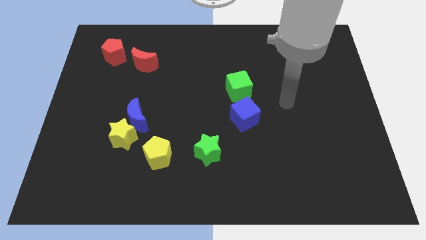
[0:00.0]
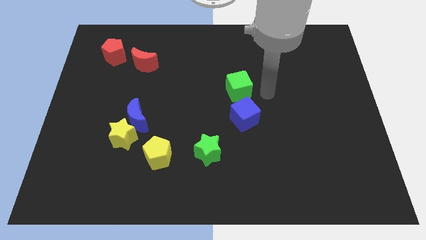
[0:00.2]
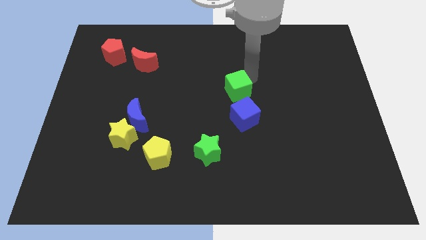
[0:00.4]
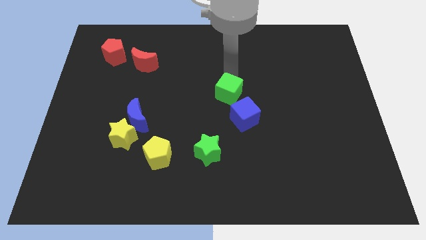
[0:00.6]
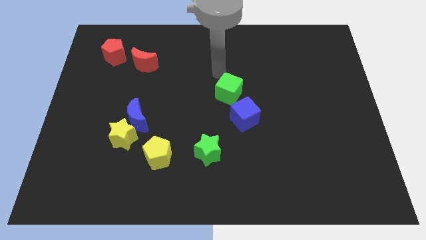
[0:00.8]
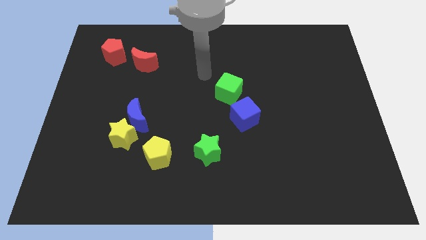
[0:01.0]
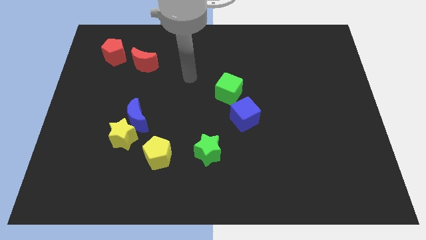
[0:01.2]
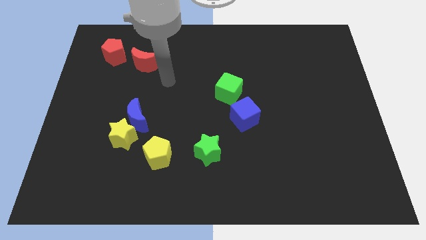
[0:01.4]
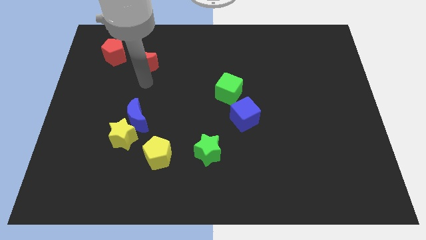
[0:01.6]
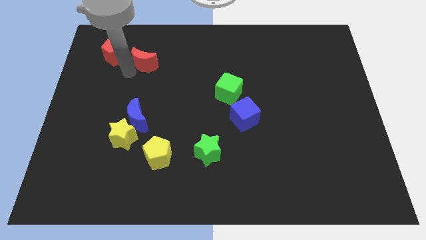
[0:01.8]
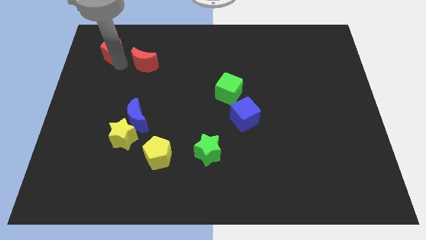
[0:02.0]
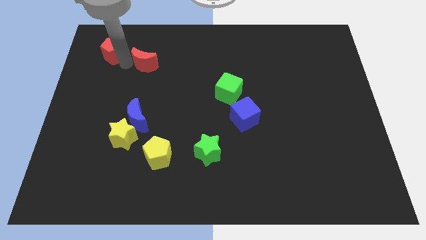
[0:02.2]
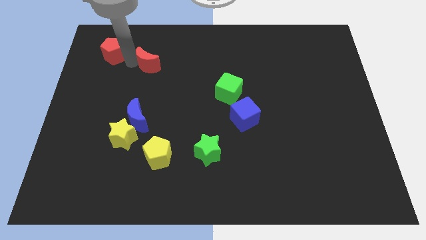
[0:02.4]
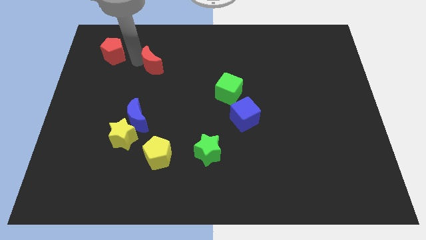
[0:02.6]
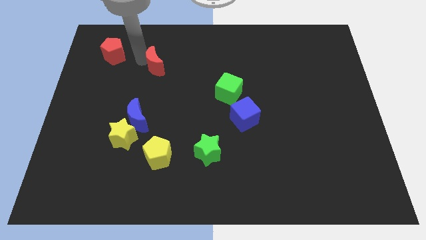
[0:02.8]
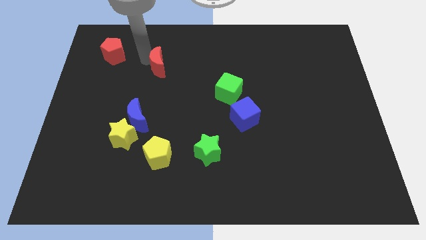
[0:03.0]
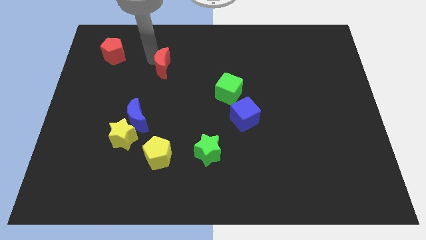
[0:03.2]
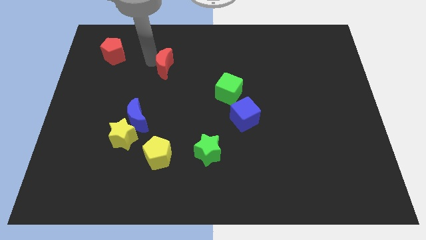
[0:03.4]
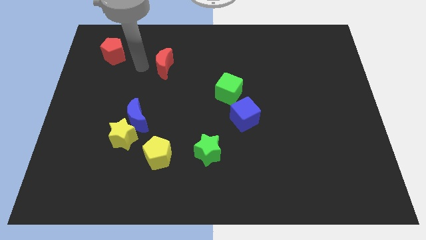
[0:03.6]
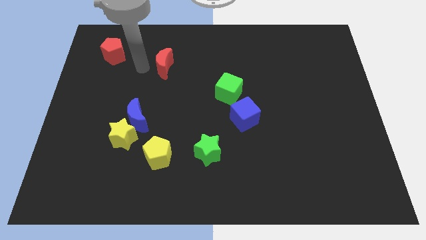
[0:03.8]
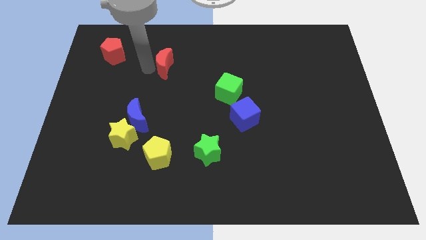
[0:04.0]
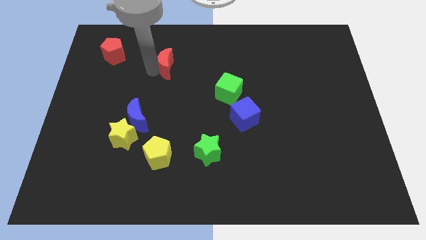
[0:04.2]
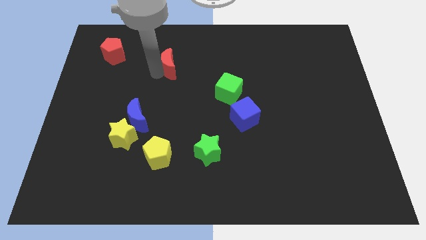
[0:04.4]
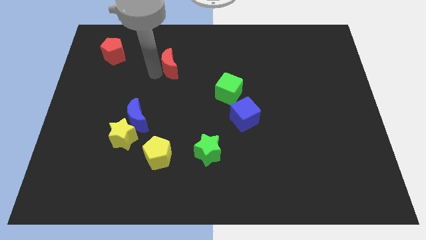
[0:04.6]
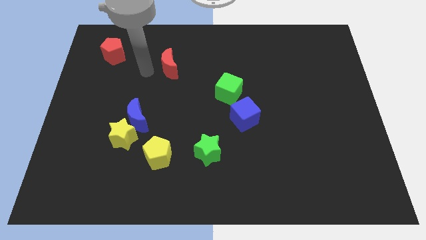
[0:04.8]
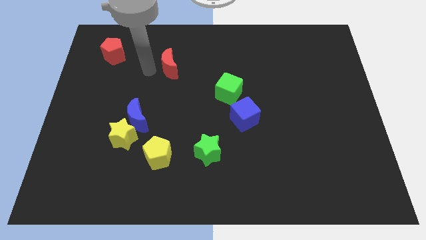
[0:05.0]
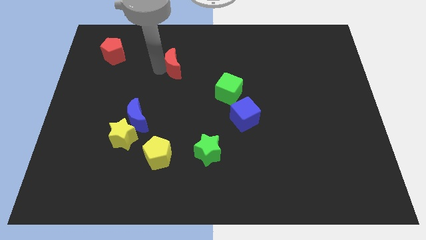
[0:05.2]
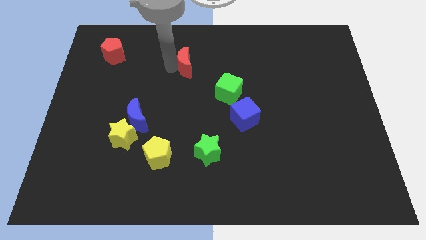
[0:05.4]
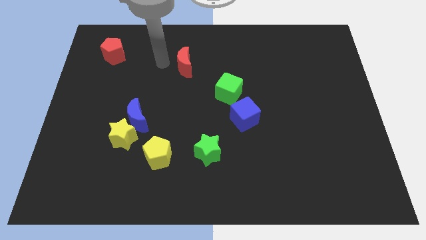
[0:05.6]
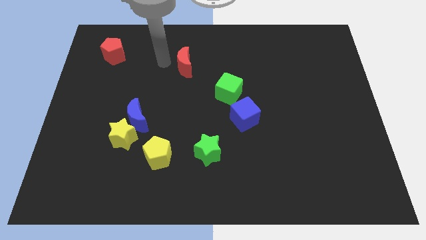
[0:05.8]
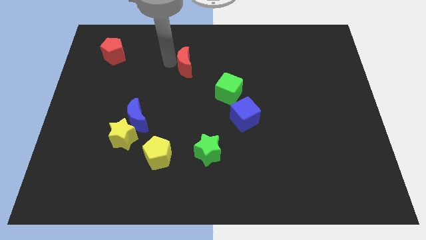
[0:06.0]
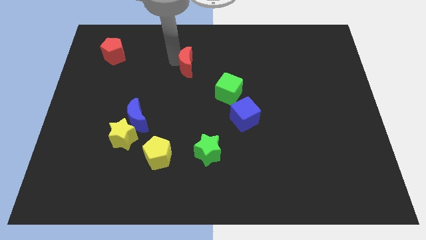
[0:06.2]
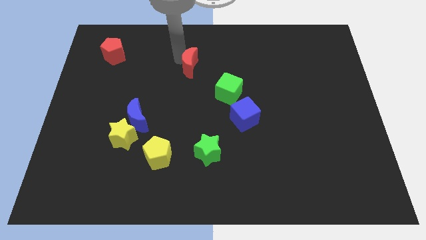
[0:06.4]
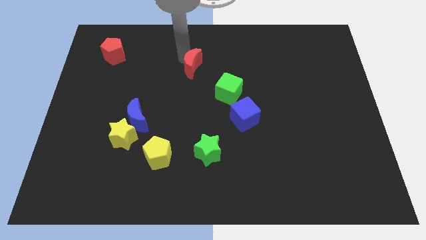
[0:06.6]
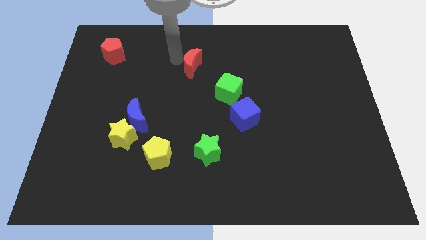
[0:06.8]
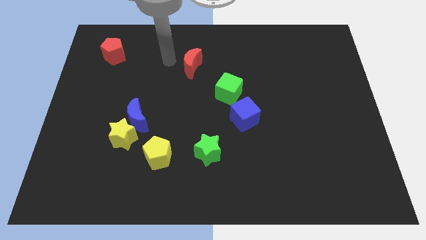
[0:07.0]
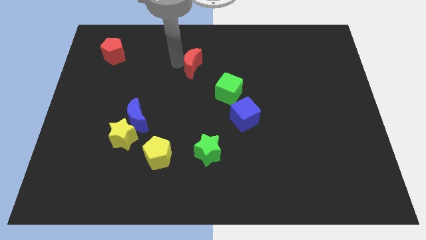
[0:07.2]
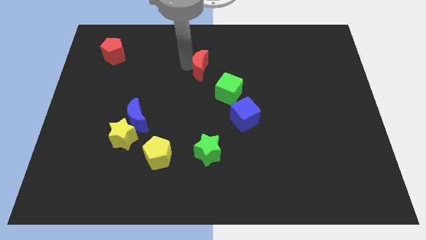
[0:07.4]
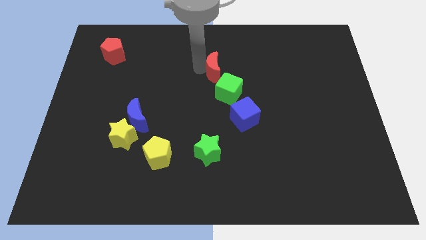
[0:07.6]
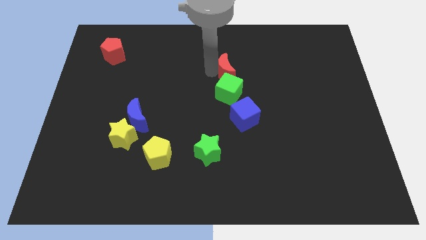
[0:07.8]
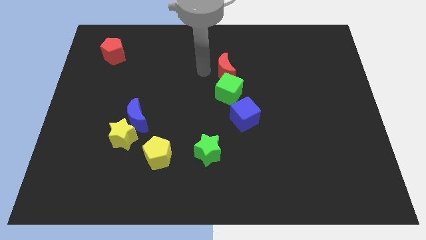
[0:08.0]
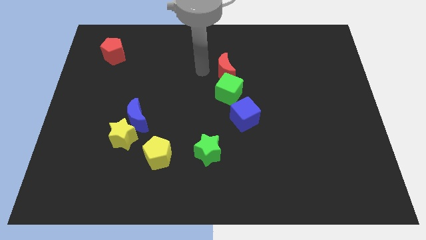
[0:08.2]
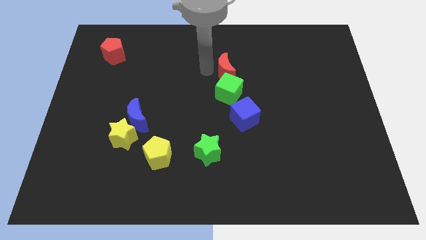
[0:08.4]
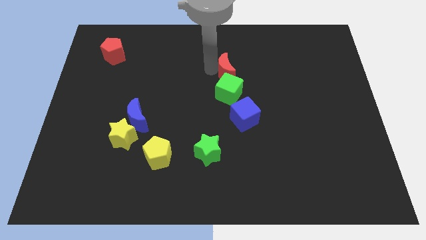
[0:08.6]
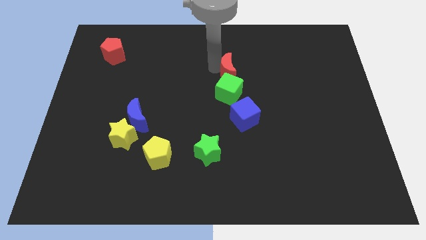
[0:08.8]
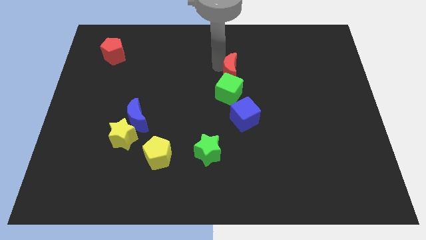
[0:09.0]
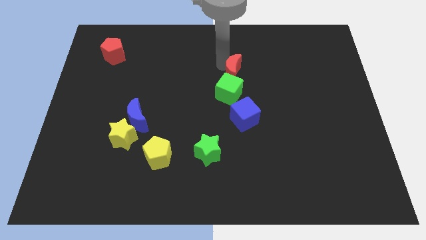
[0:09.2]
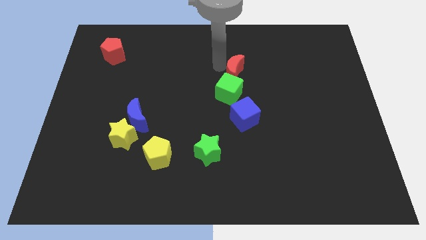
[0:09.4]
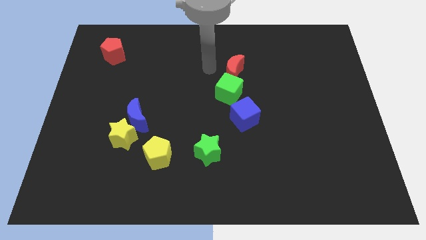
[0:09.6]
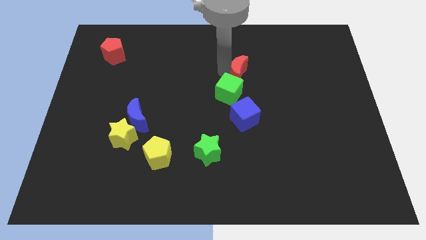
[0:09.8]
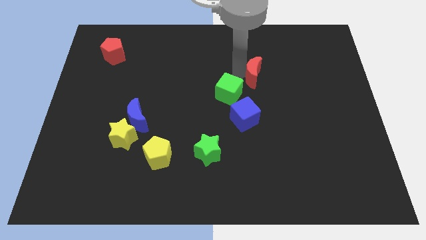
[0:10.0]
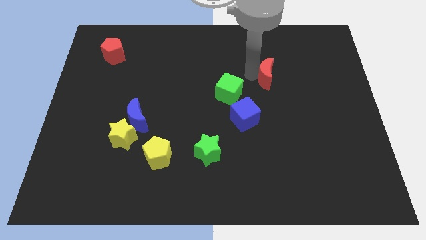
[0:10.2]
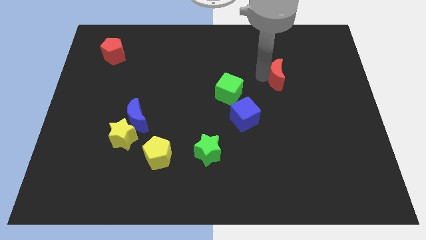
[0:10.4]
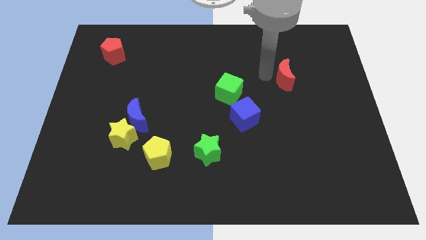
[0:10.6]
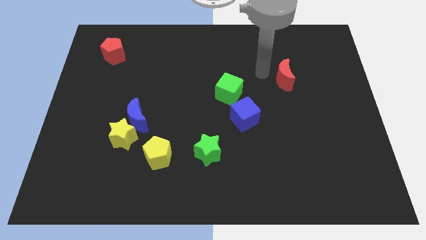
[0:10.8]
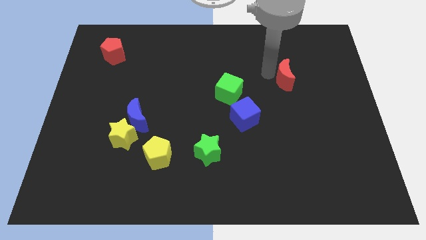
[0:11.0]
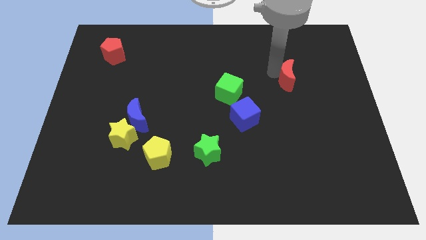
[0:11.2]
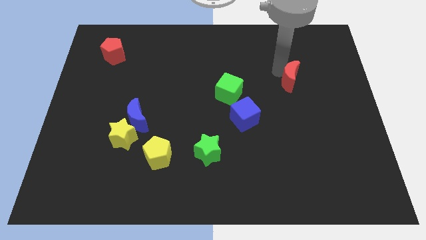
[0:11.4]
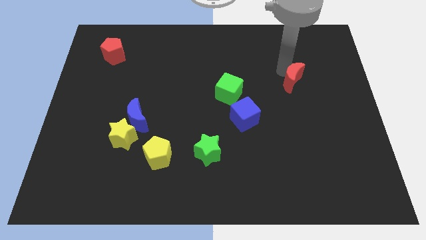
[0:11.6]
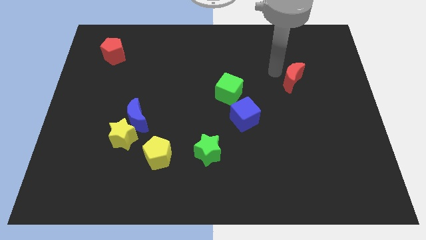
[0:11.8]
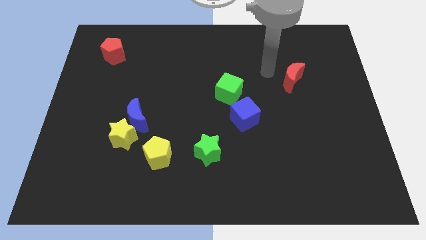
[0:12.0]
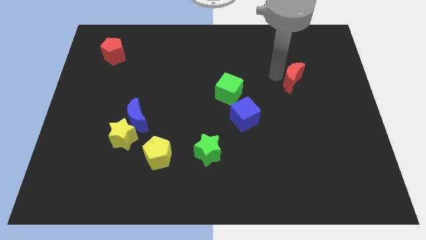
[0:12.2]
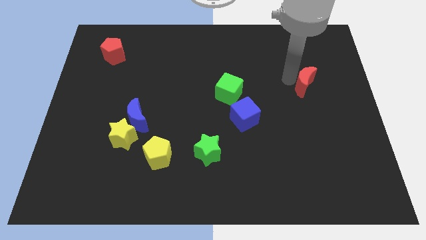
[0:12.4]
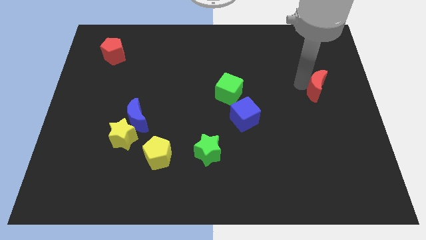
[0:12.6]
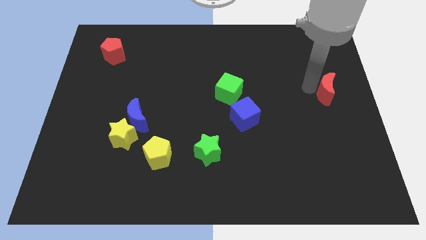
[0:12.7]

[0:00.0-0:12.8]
push the red moon to the right side of the board

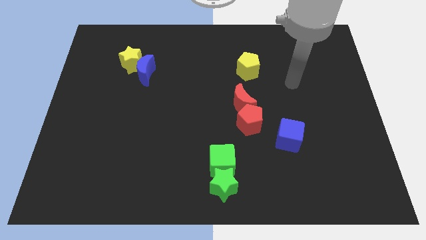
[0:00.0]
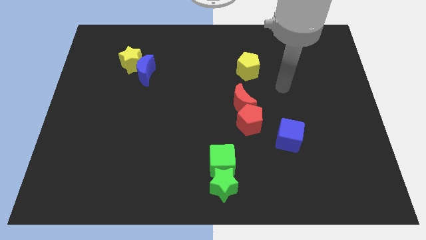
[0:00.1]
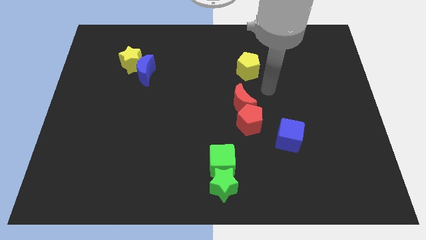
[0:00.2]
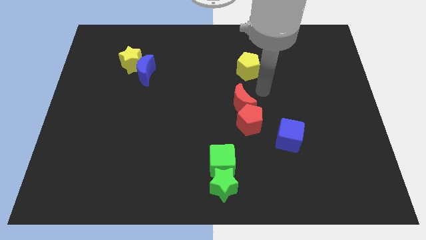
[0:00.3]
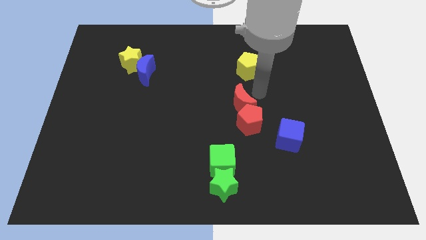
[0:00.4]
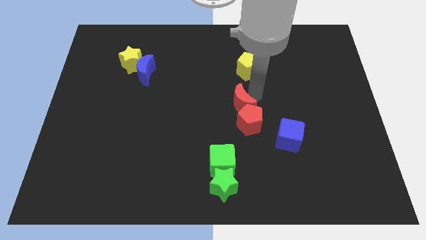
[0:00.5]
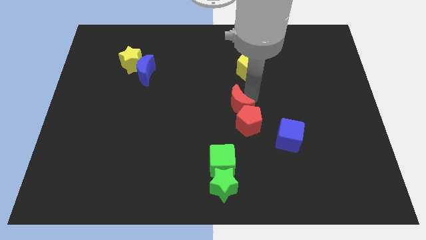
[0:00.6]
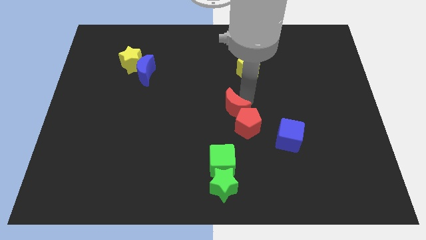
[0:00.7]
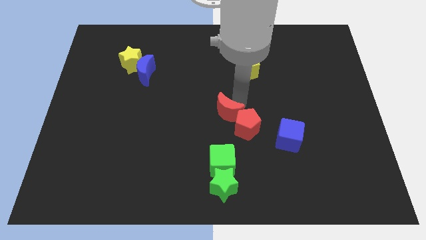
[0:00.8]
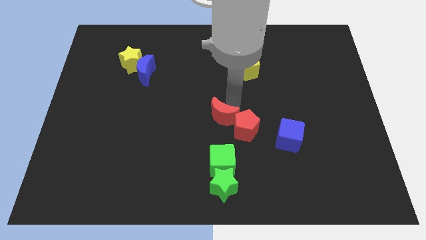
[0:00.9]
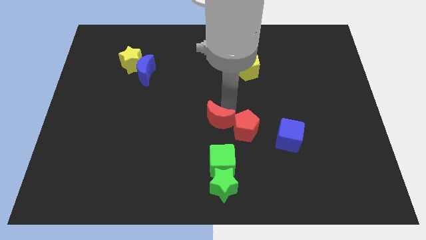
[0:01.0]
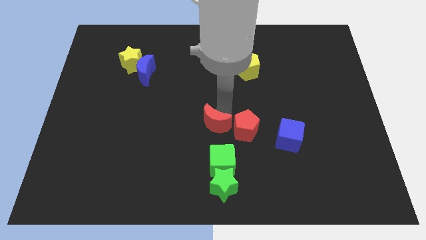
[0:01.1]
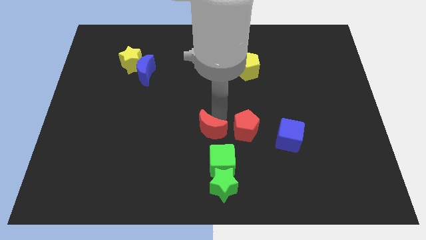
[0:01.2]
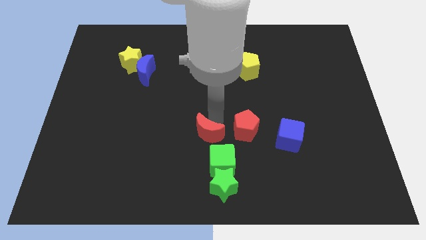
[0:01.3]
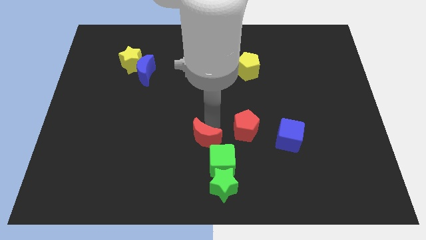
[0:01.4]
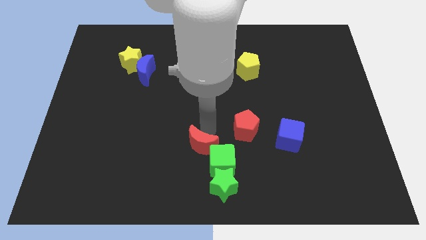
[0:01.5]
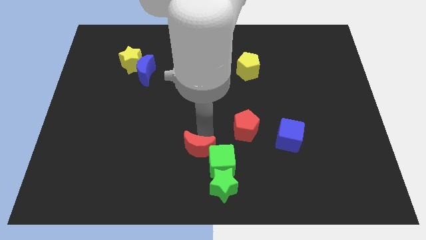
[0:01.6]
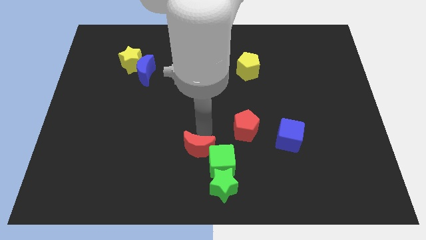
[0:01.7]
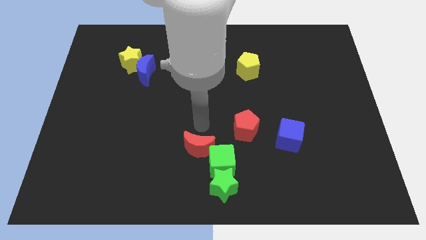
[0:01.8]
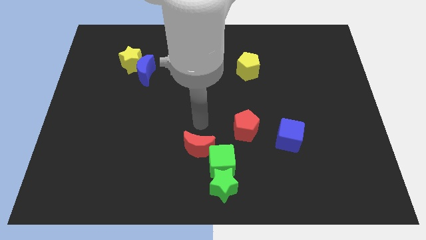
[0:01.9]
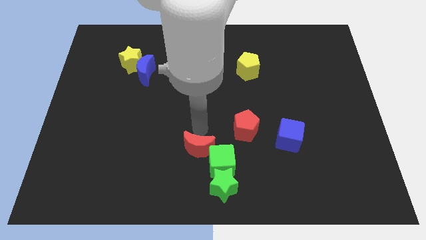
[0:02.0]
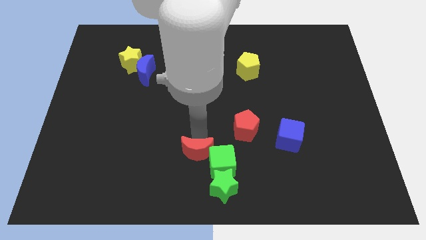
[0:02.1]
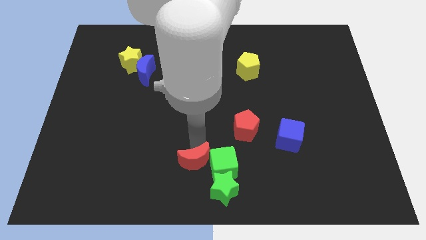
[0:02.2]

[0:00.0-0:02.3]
slide the red moon to the bottom
